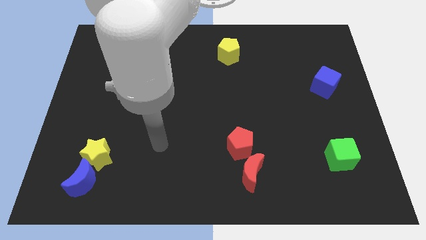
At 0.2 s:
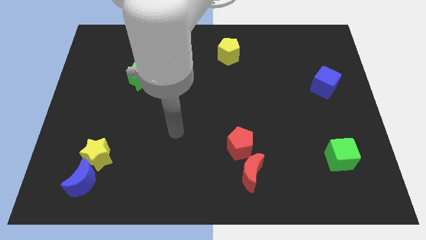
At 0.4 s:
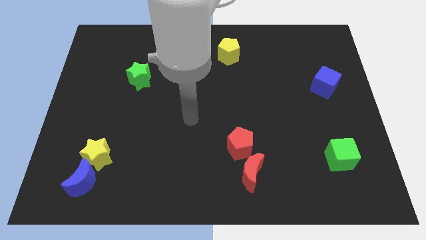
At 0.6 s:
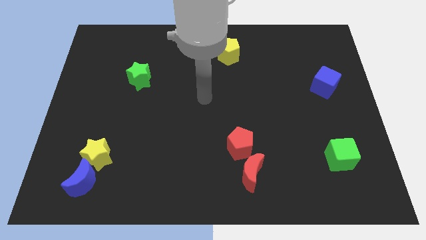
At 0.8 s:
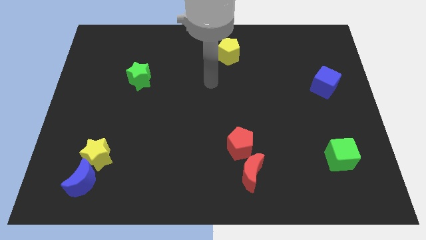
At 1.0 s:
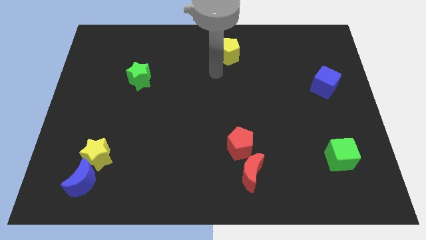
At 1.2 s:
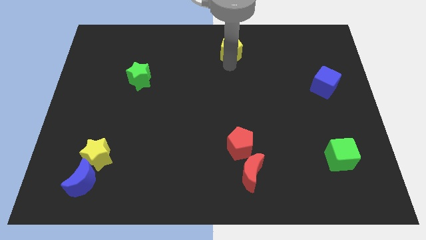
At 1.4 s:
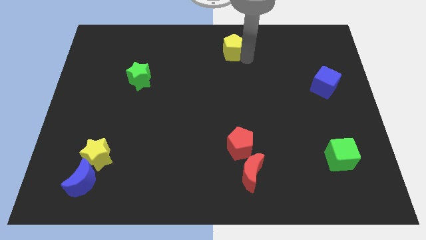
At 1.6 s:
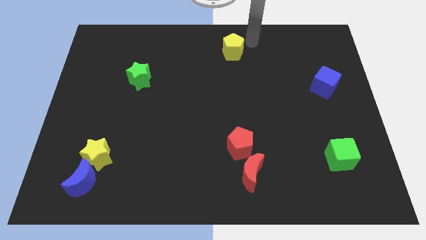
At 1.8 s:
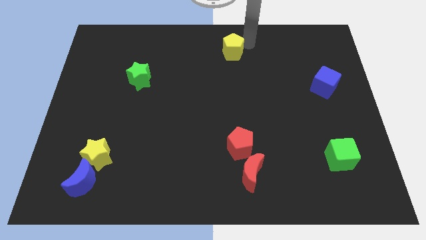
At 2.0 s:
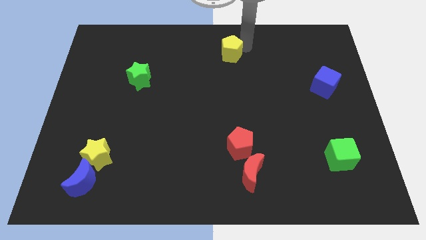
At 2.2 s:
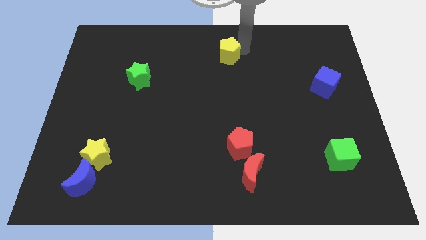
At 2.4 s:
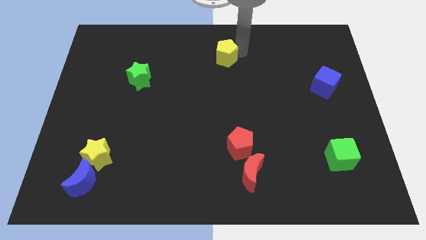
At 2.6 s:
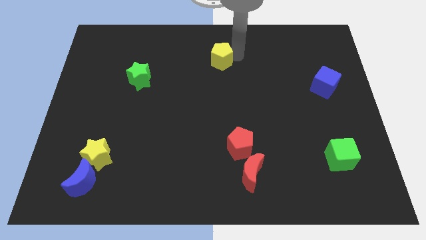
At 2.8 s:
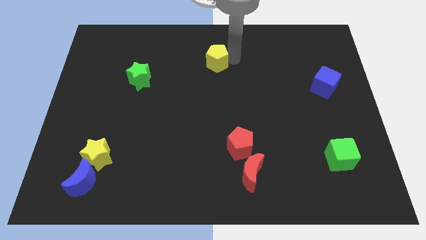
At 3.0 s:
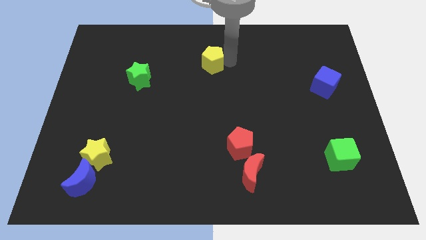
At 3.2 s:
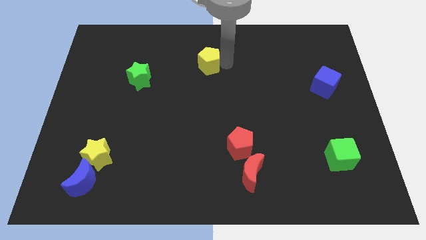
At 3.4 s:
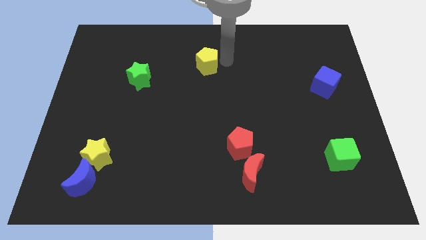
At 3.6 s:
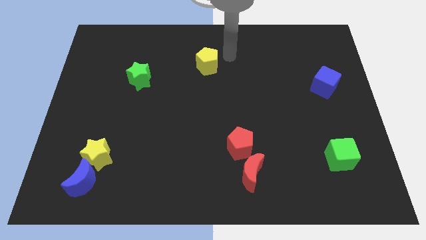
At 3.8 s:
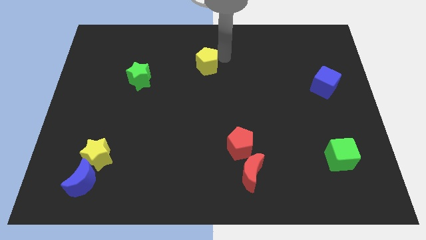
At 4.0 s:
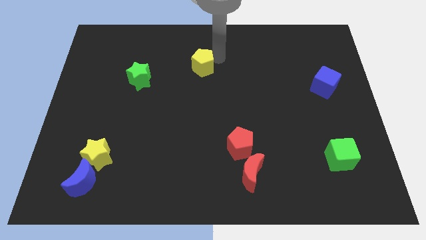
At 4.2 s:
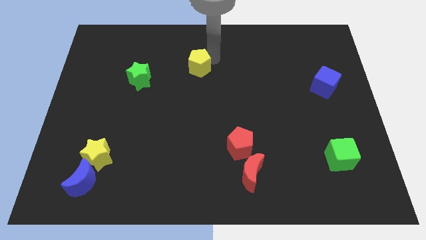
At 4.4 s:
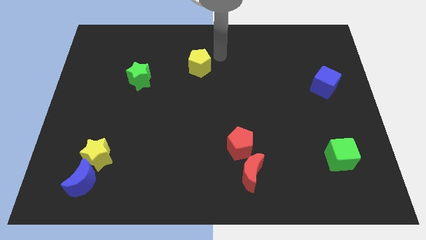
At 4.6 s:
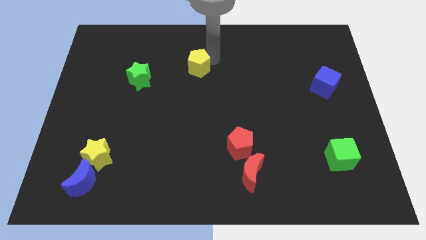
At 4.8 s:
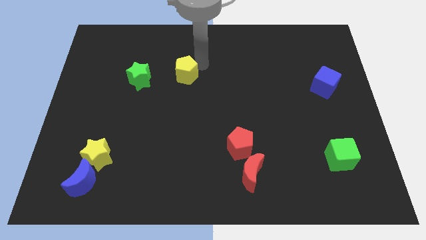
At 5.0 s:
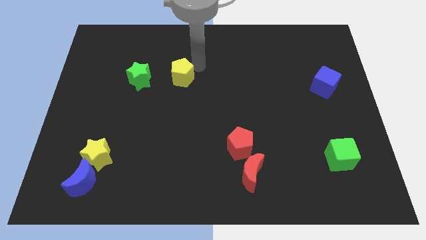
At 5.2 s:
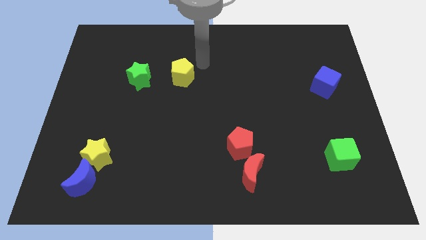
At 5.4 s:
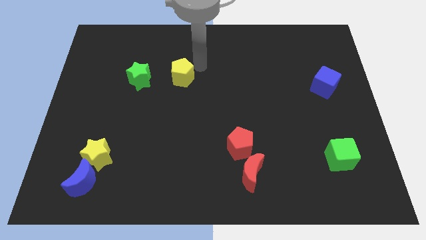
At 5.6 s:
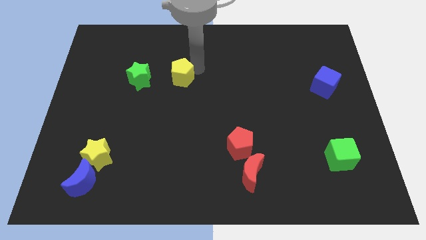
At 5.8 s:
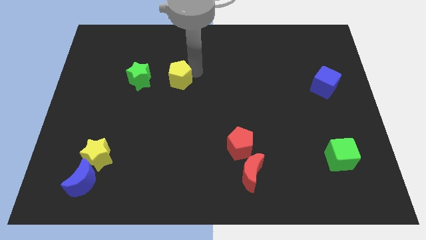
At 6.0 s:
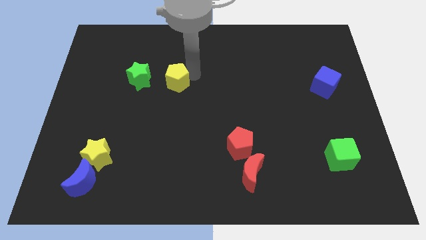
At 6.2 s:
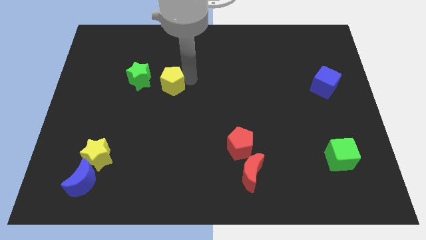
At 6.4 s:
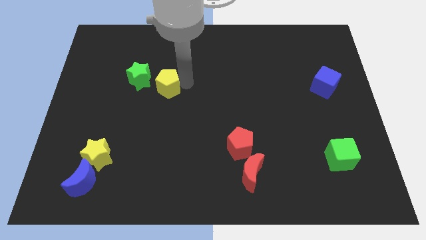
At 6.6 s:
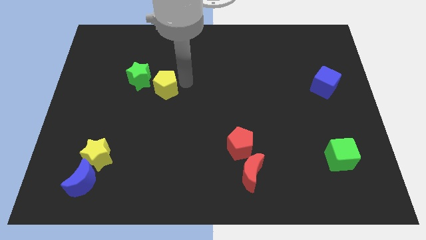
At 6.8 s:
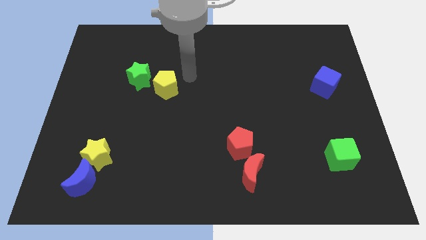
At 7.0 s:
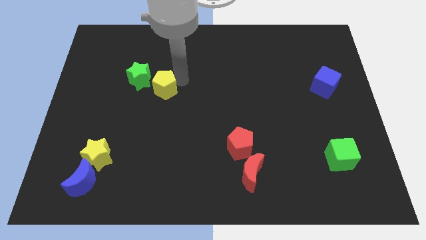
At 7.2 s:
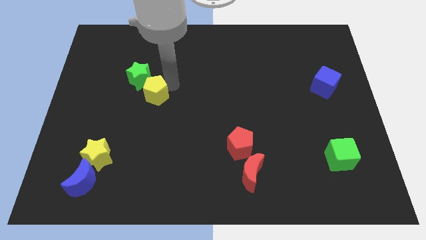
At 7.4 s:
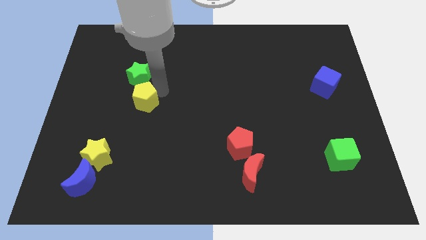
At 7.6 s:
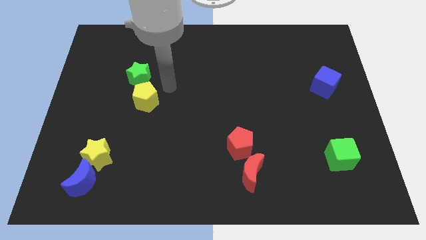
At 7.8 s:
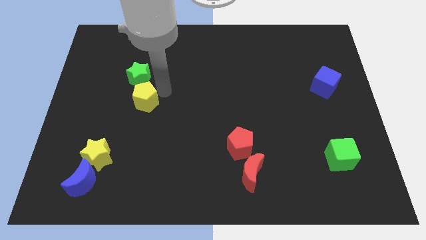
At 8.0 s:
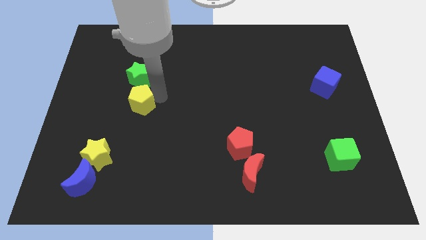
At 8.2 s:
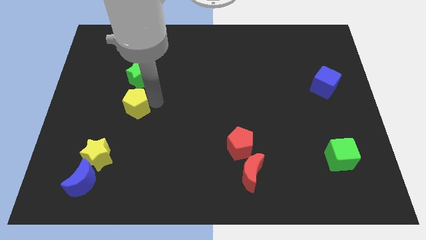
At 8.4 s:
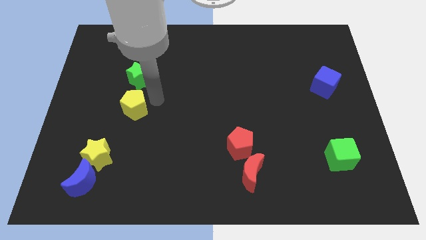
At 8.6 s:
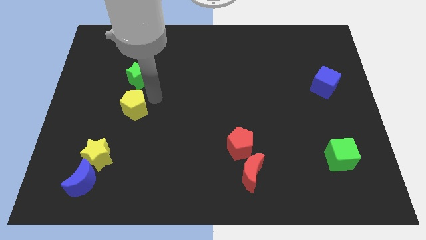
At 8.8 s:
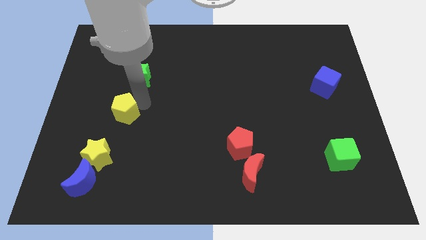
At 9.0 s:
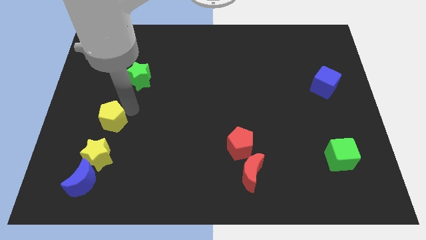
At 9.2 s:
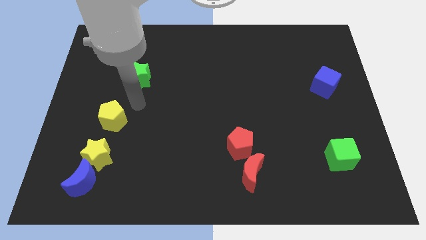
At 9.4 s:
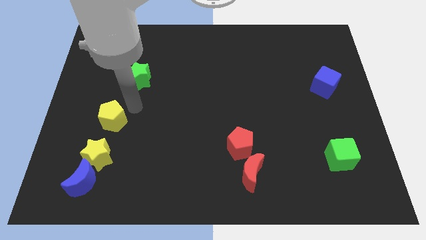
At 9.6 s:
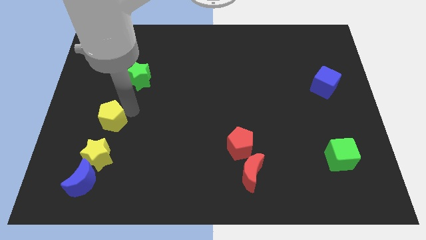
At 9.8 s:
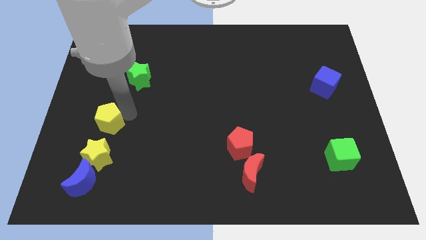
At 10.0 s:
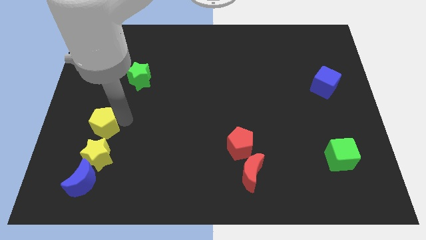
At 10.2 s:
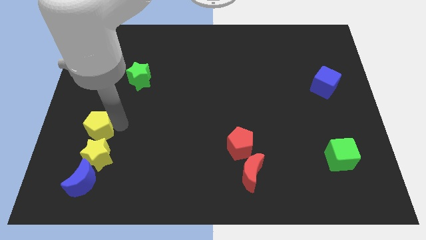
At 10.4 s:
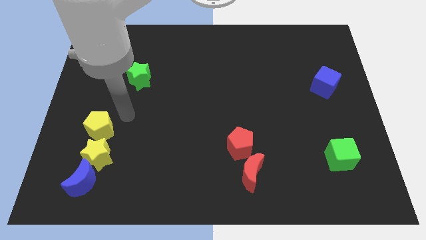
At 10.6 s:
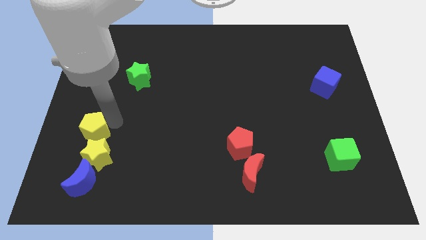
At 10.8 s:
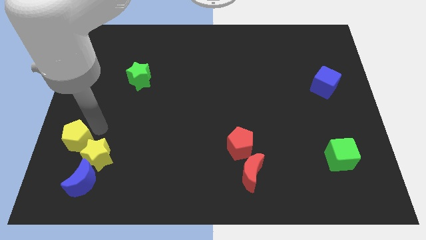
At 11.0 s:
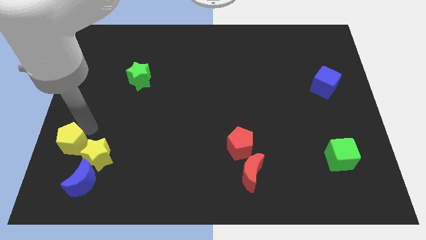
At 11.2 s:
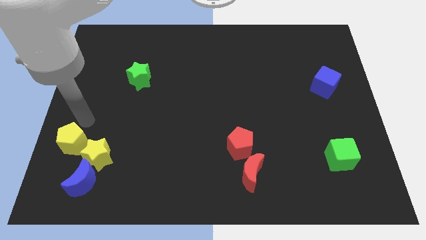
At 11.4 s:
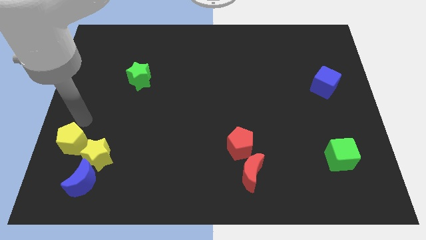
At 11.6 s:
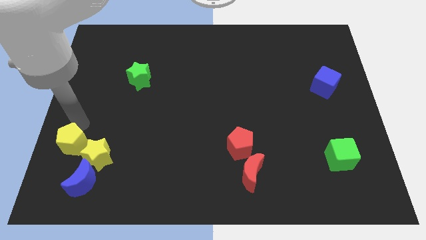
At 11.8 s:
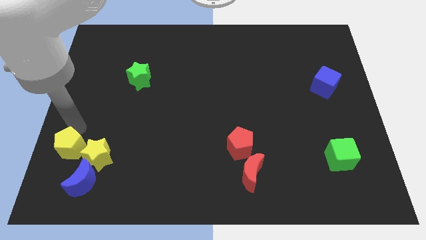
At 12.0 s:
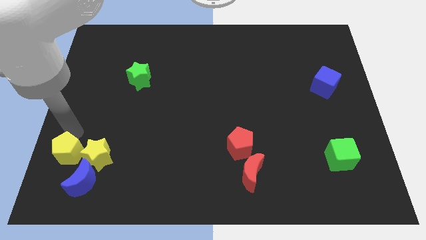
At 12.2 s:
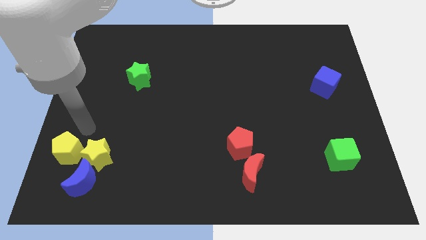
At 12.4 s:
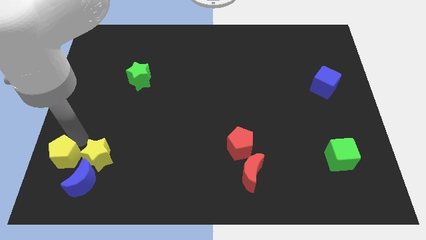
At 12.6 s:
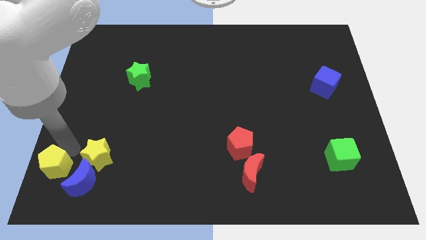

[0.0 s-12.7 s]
move the yellow pentagon to the bottom left corner
